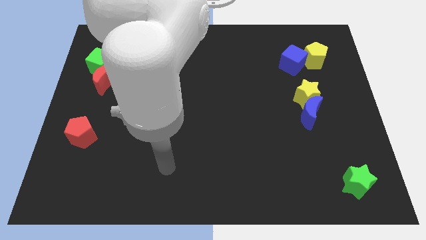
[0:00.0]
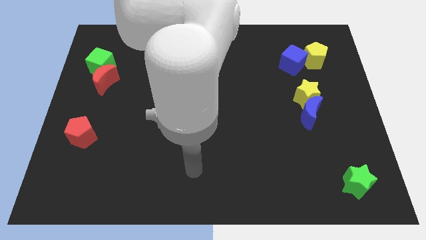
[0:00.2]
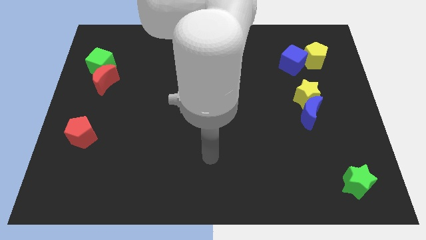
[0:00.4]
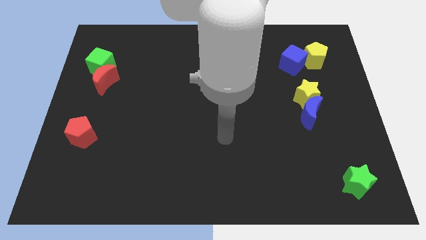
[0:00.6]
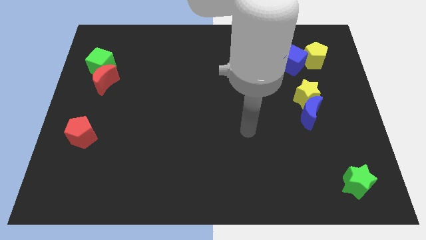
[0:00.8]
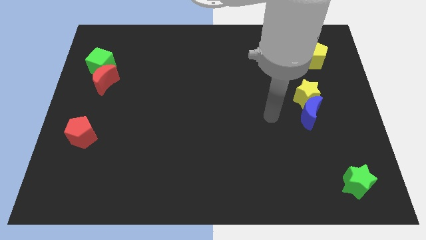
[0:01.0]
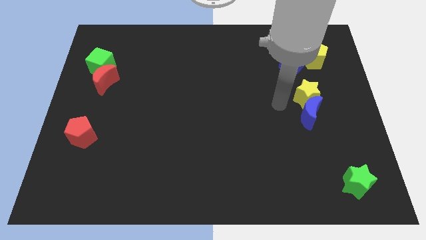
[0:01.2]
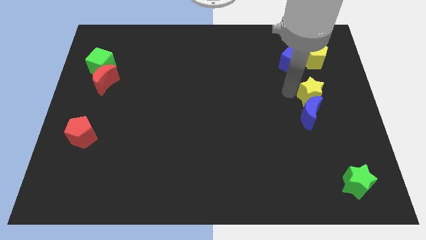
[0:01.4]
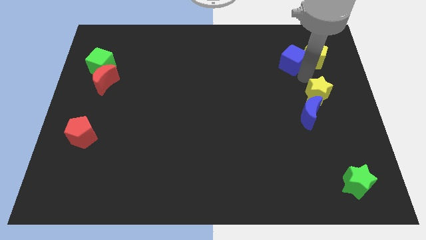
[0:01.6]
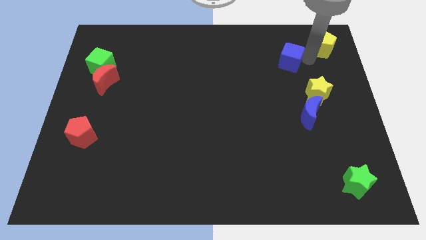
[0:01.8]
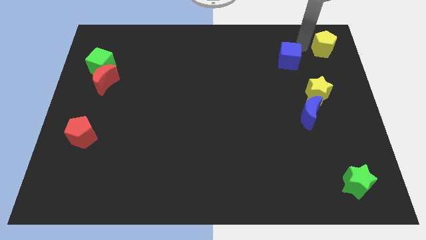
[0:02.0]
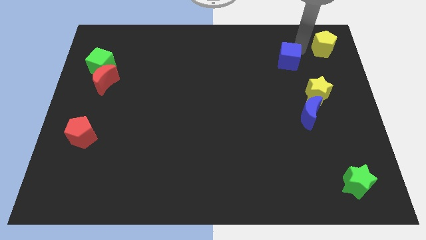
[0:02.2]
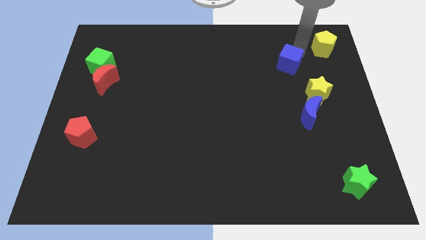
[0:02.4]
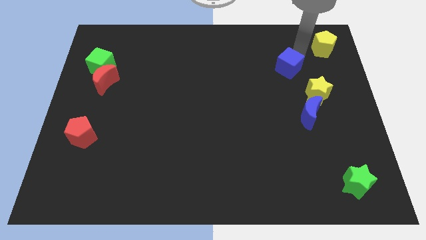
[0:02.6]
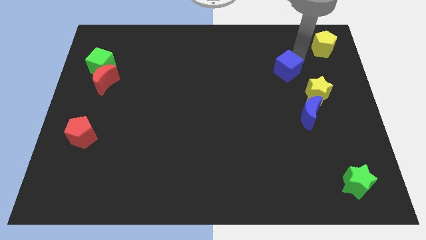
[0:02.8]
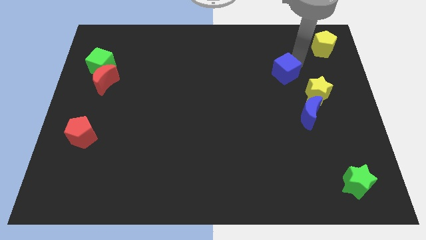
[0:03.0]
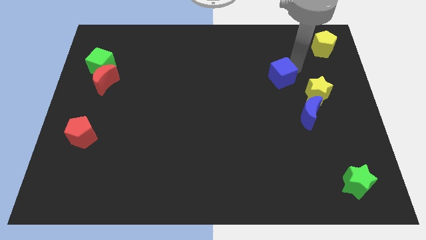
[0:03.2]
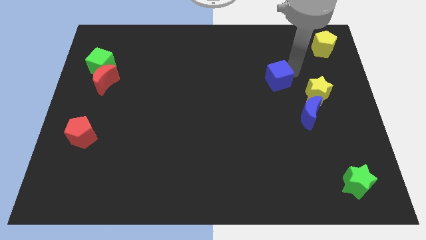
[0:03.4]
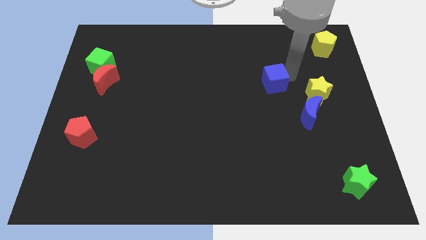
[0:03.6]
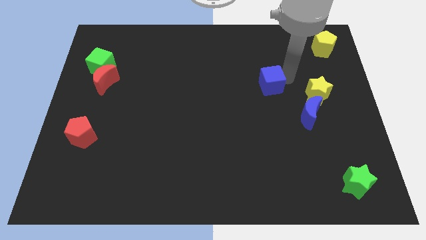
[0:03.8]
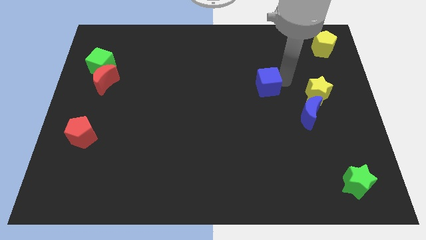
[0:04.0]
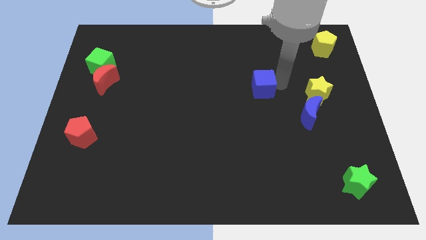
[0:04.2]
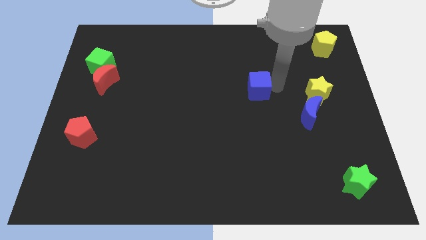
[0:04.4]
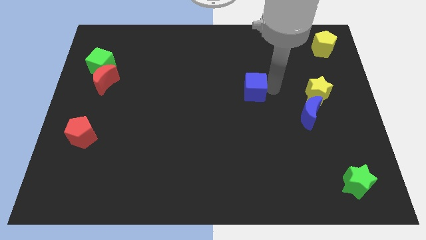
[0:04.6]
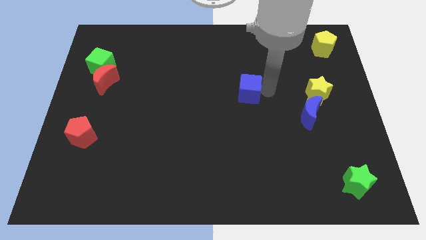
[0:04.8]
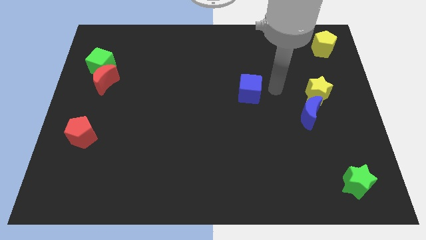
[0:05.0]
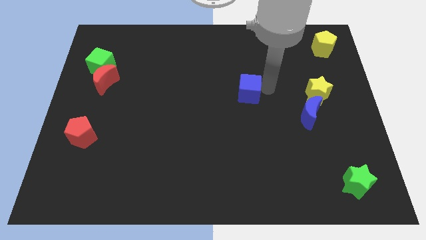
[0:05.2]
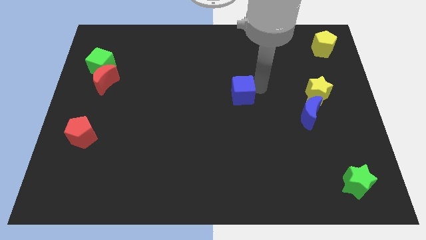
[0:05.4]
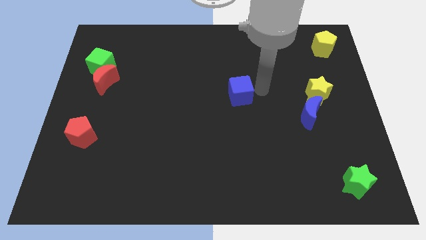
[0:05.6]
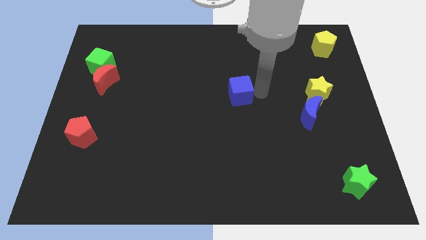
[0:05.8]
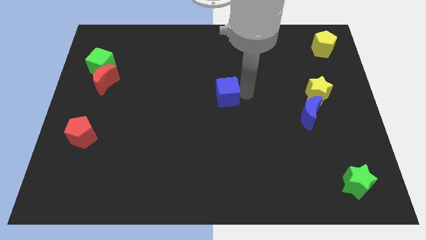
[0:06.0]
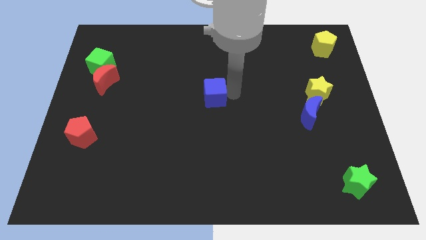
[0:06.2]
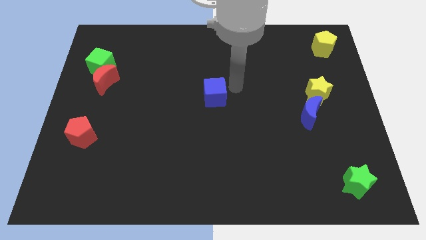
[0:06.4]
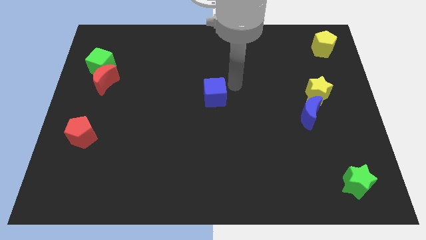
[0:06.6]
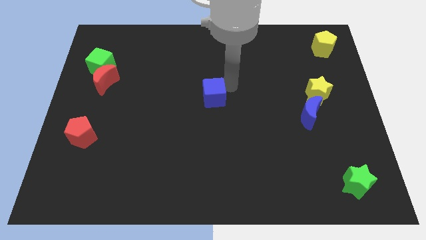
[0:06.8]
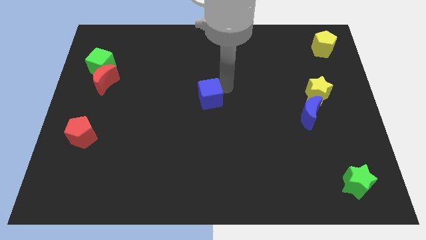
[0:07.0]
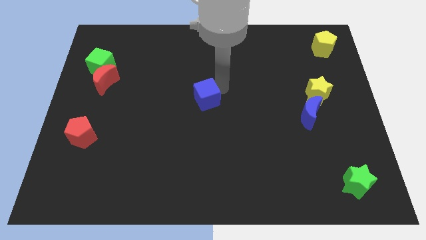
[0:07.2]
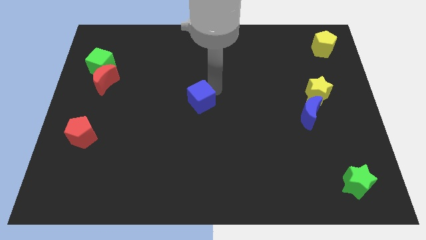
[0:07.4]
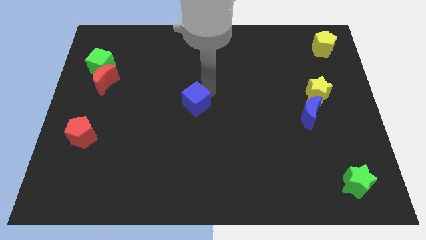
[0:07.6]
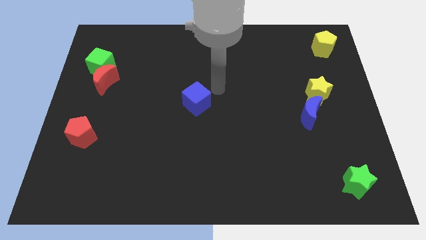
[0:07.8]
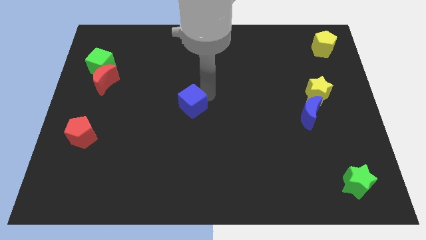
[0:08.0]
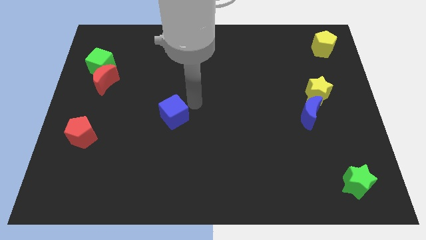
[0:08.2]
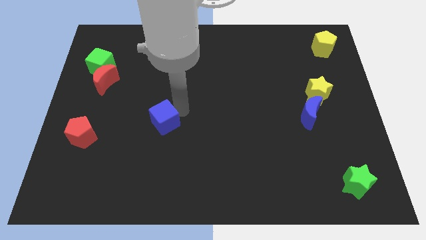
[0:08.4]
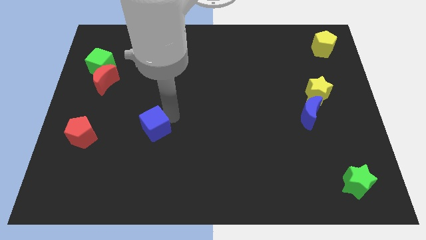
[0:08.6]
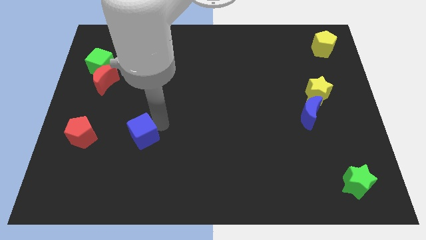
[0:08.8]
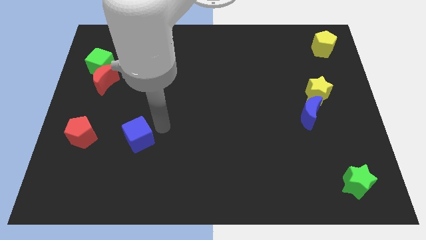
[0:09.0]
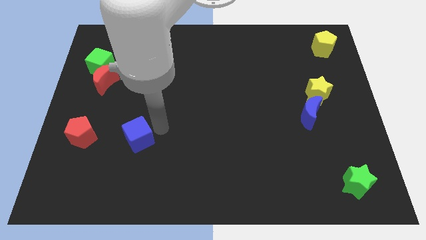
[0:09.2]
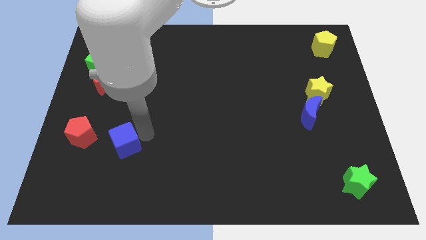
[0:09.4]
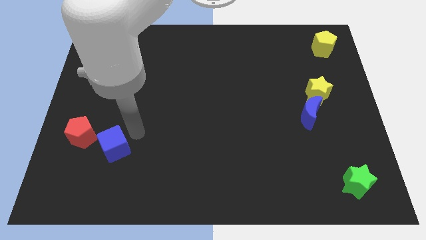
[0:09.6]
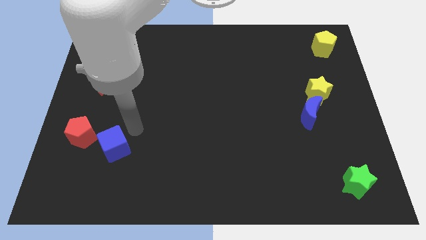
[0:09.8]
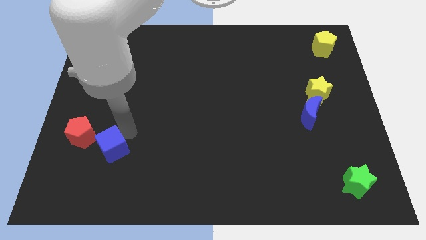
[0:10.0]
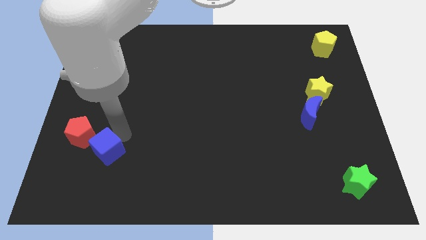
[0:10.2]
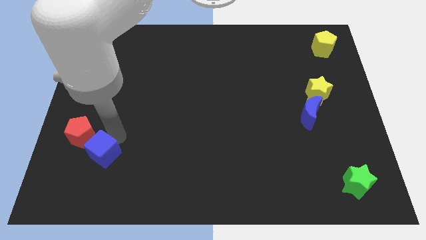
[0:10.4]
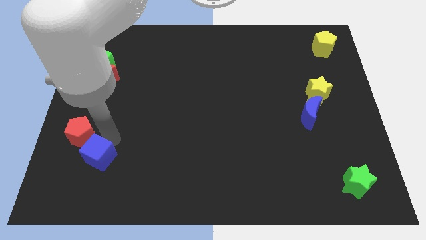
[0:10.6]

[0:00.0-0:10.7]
push the blue cube to the bottom side of the red pentagon

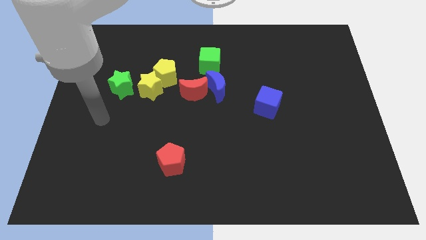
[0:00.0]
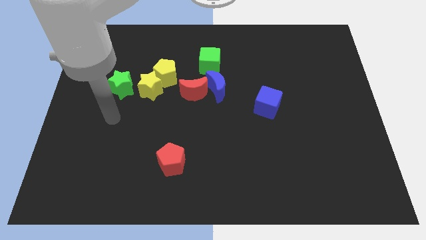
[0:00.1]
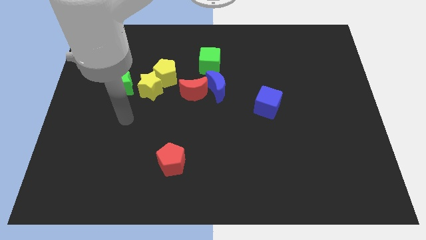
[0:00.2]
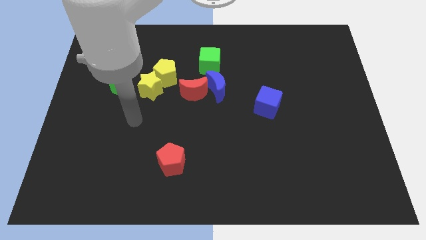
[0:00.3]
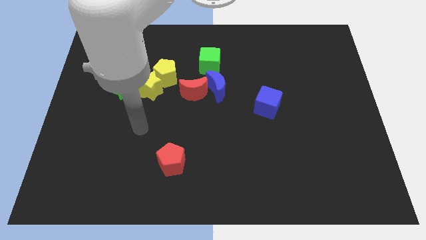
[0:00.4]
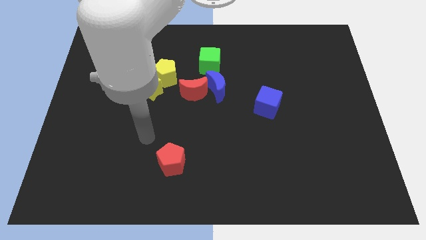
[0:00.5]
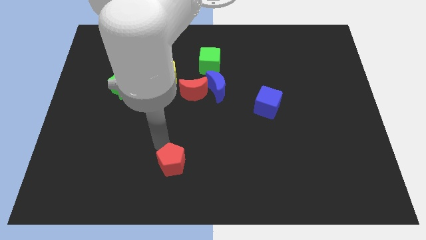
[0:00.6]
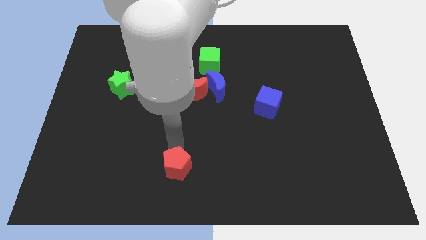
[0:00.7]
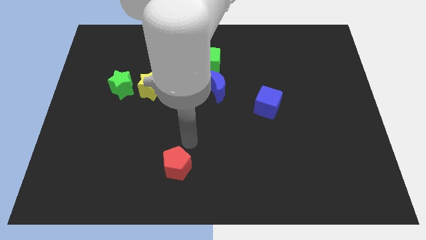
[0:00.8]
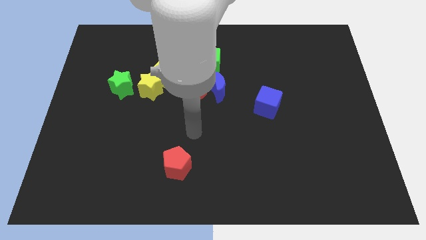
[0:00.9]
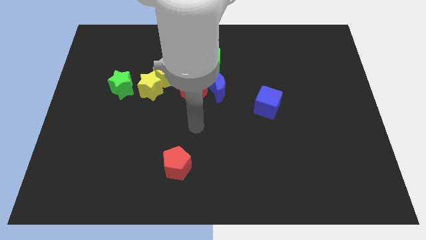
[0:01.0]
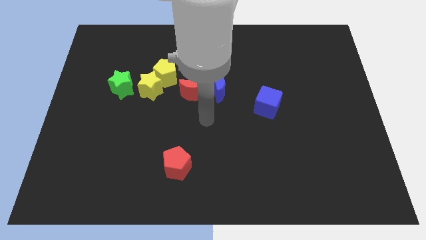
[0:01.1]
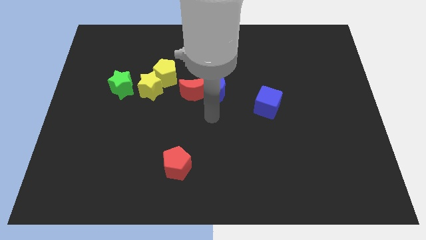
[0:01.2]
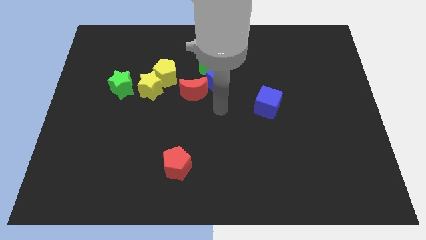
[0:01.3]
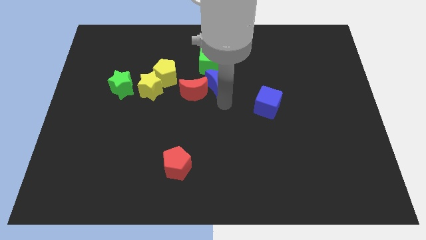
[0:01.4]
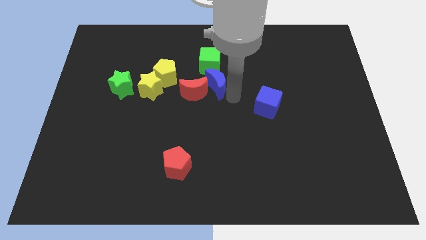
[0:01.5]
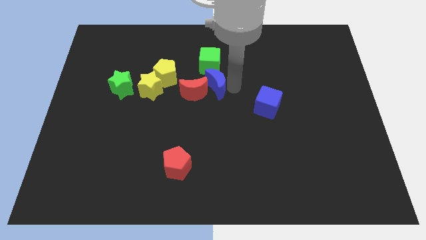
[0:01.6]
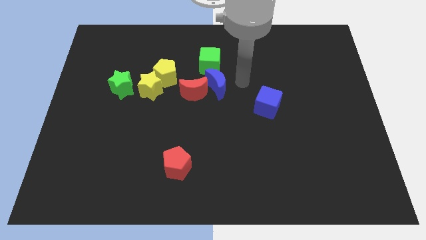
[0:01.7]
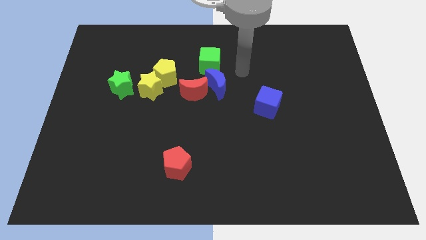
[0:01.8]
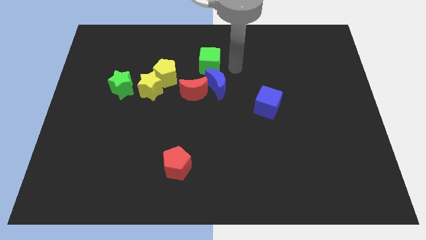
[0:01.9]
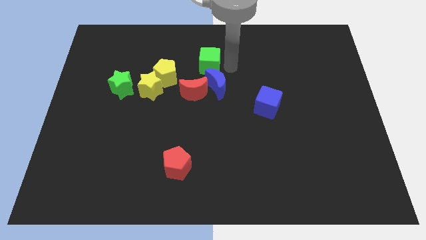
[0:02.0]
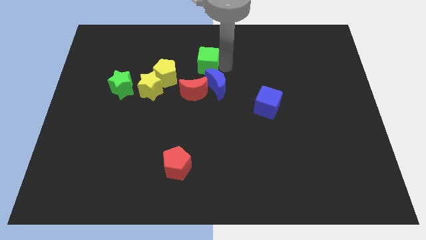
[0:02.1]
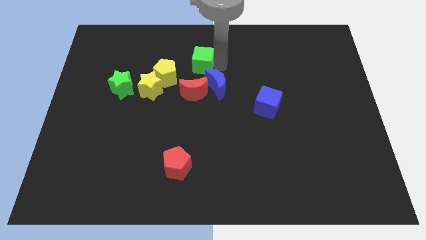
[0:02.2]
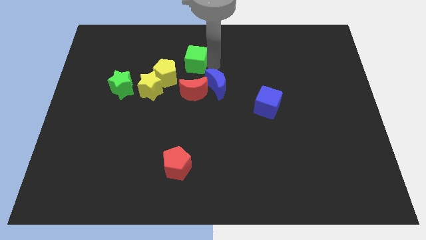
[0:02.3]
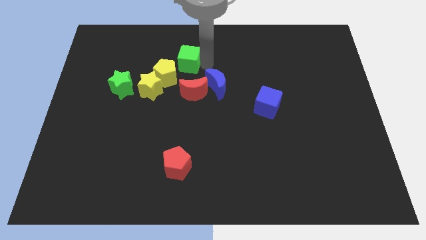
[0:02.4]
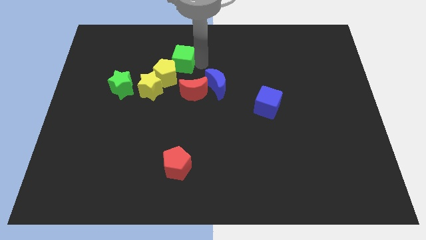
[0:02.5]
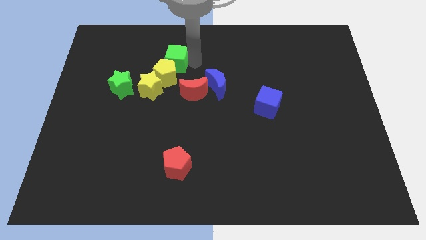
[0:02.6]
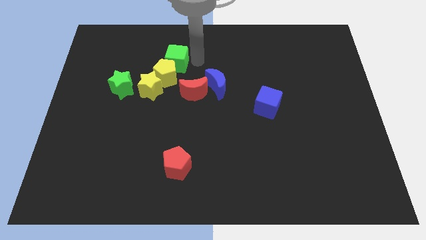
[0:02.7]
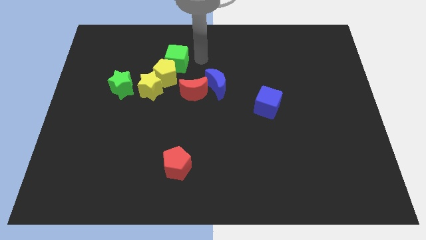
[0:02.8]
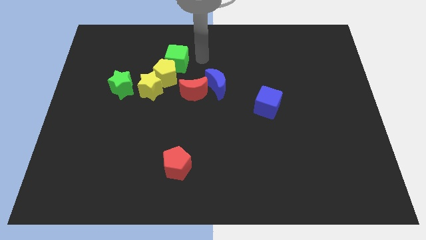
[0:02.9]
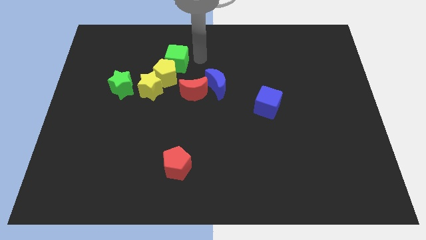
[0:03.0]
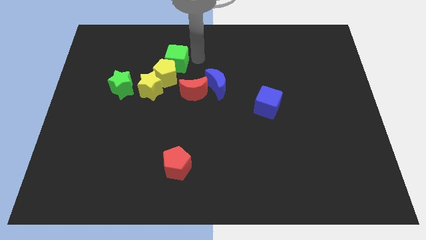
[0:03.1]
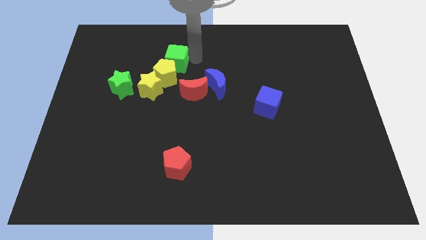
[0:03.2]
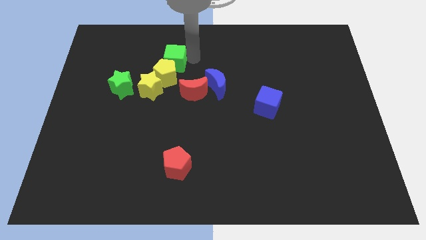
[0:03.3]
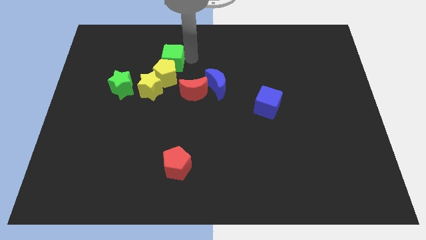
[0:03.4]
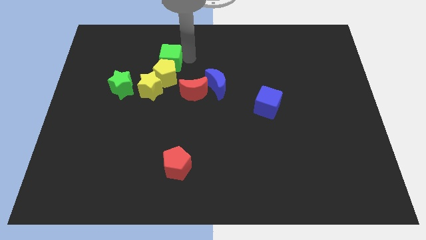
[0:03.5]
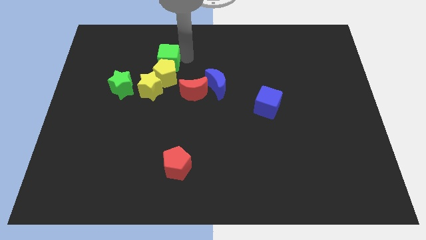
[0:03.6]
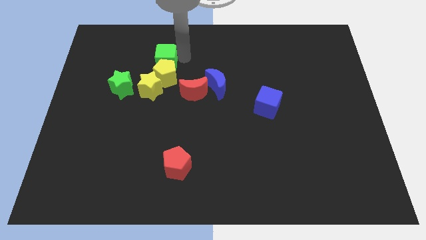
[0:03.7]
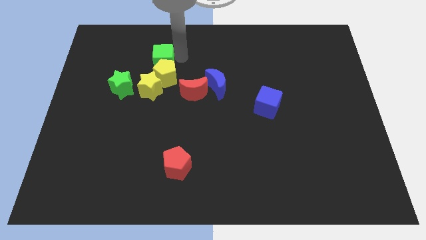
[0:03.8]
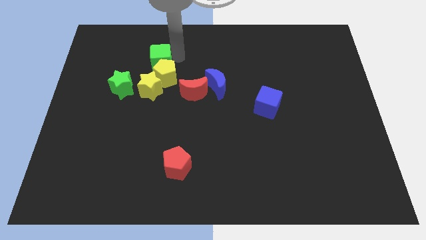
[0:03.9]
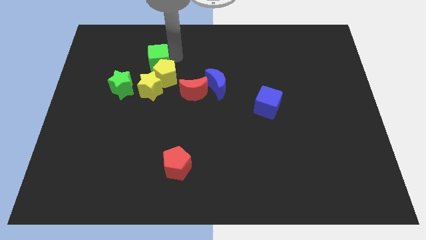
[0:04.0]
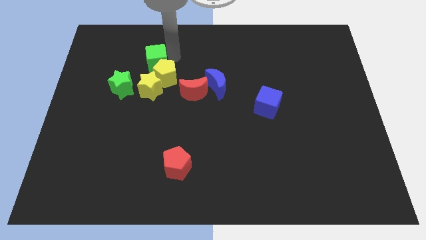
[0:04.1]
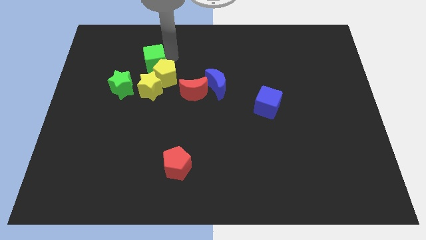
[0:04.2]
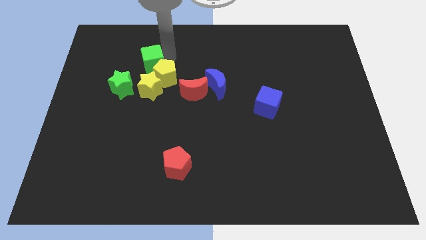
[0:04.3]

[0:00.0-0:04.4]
push the green cube to the left side of the yellow pentagon
